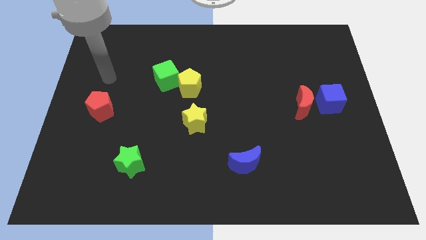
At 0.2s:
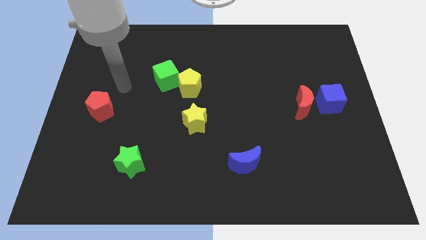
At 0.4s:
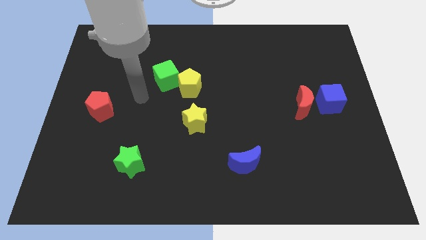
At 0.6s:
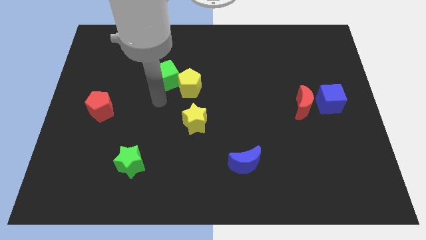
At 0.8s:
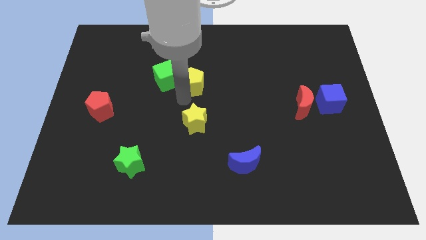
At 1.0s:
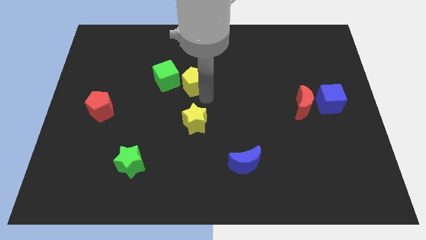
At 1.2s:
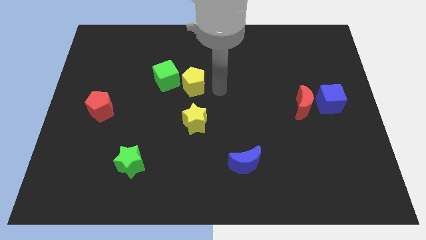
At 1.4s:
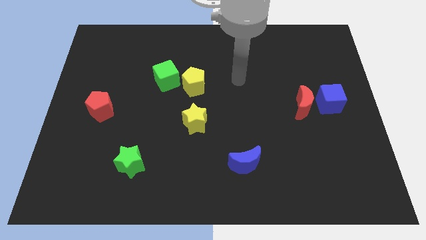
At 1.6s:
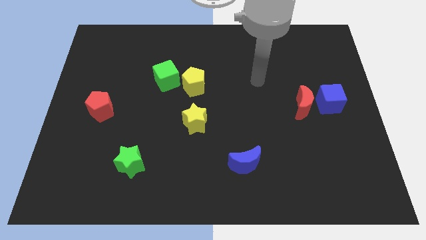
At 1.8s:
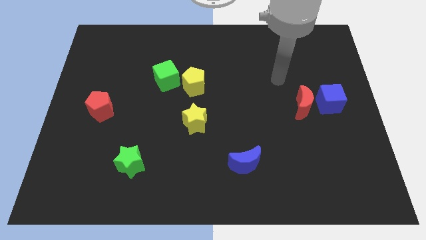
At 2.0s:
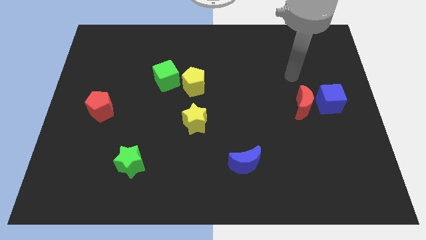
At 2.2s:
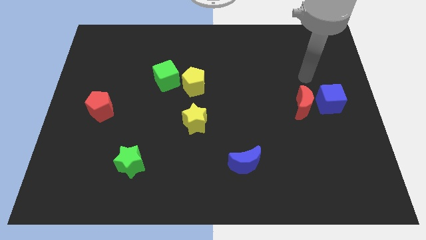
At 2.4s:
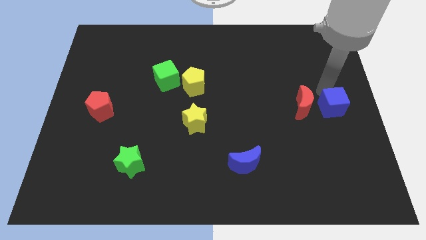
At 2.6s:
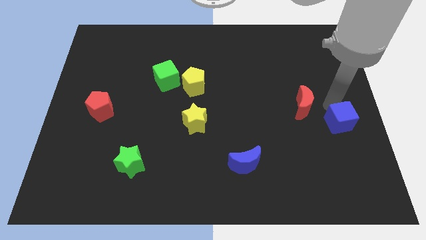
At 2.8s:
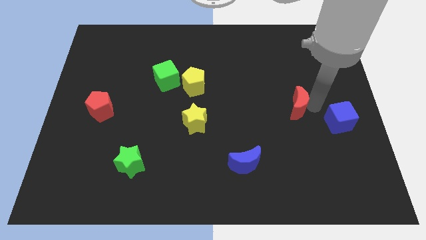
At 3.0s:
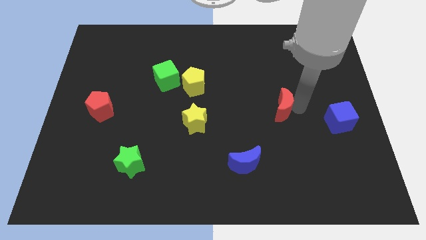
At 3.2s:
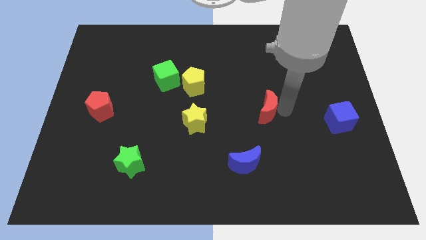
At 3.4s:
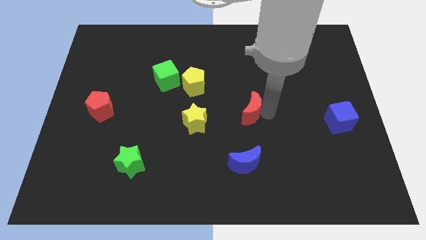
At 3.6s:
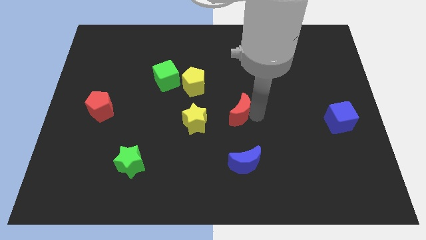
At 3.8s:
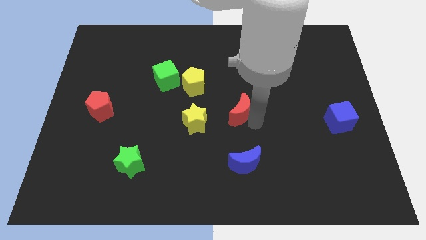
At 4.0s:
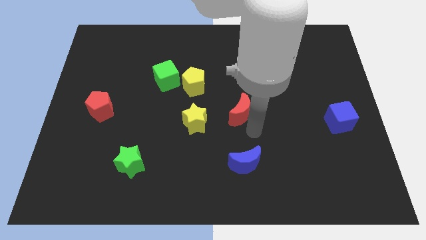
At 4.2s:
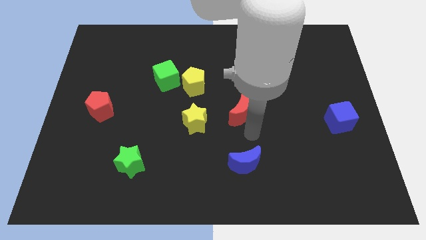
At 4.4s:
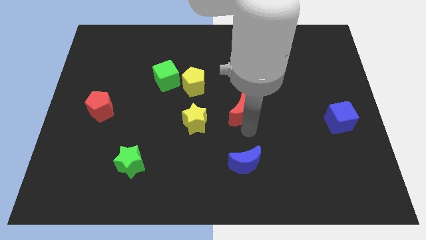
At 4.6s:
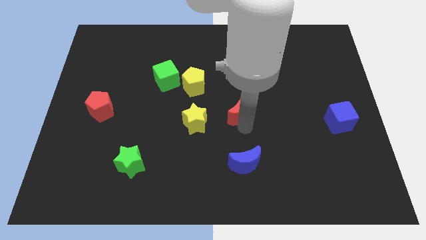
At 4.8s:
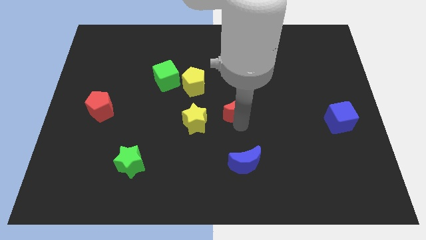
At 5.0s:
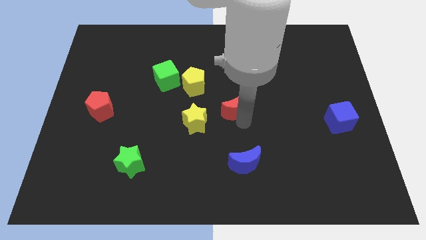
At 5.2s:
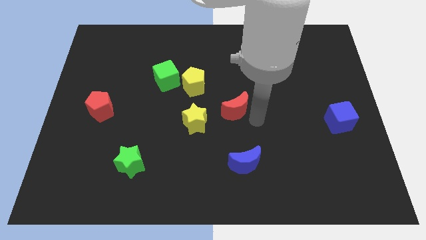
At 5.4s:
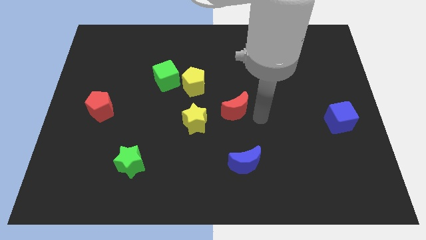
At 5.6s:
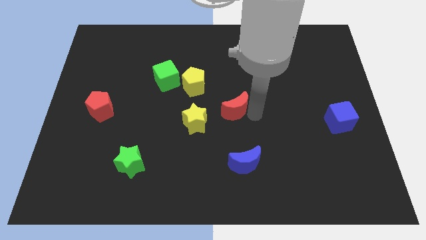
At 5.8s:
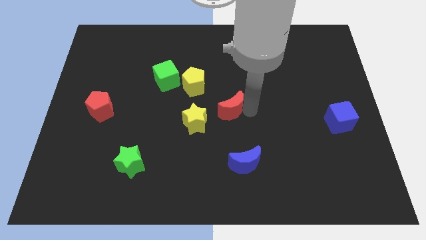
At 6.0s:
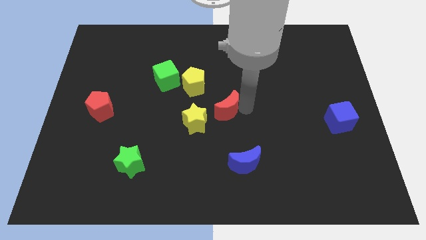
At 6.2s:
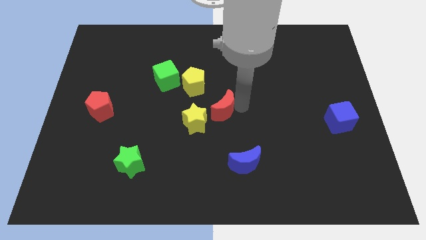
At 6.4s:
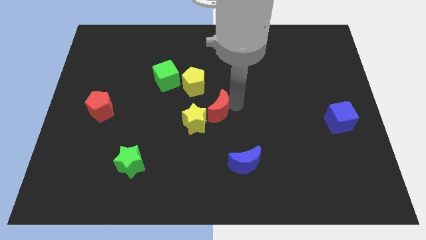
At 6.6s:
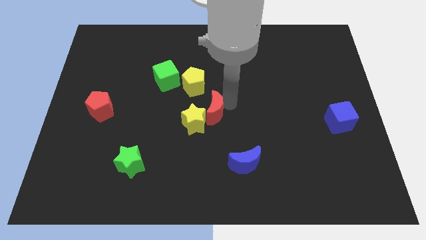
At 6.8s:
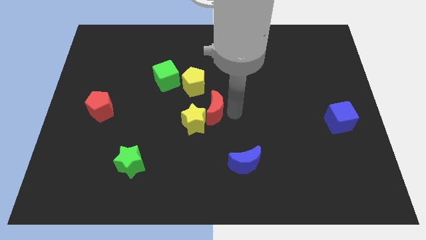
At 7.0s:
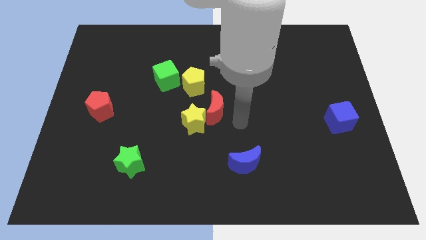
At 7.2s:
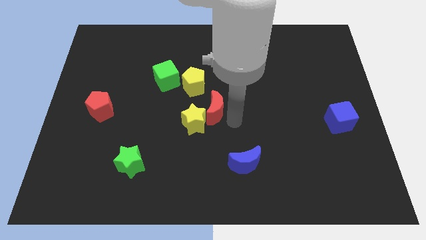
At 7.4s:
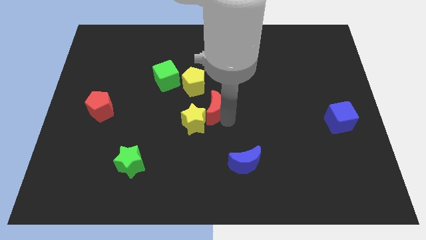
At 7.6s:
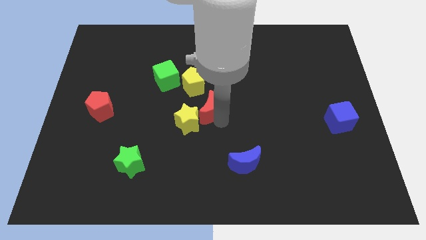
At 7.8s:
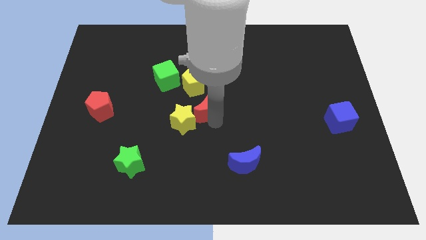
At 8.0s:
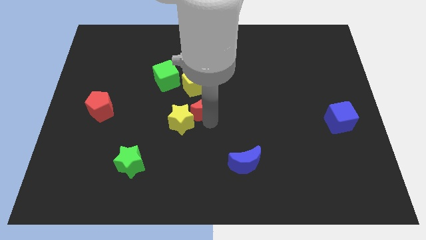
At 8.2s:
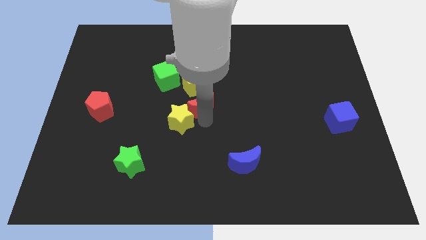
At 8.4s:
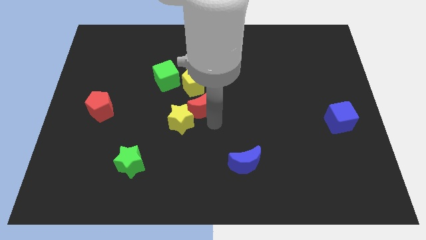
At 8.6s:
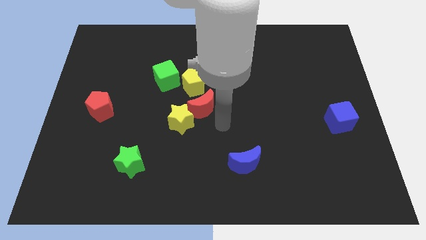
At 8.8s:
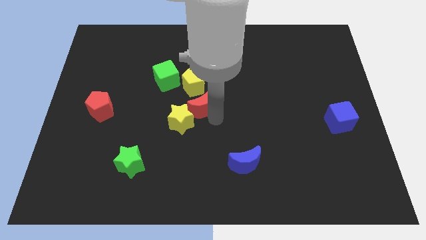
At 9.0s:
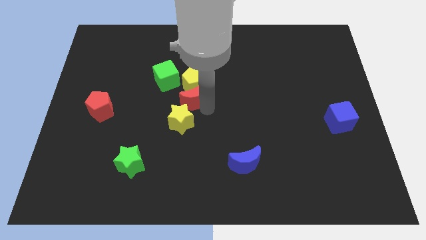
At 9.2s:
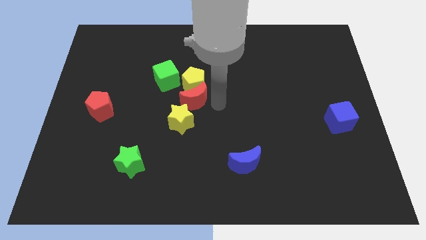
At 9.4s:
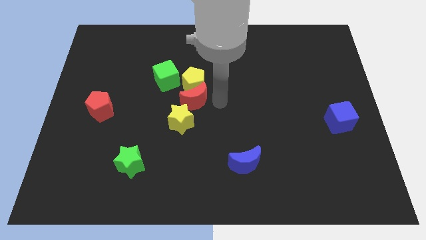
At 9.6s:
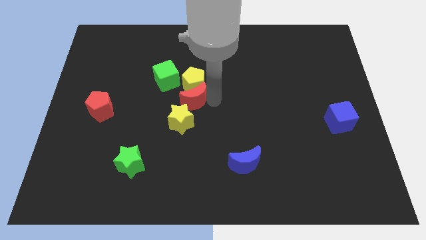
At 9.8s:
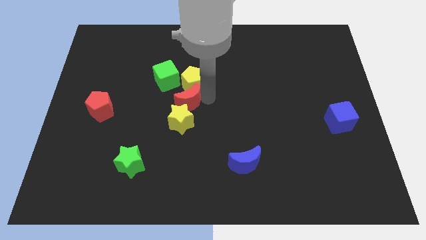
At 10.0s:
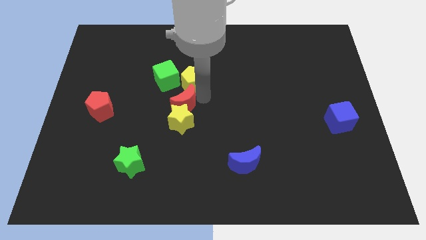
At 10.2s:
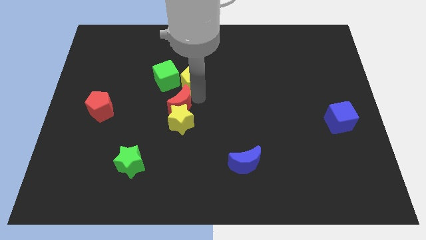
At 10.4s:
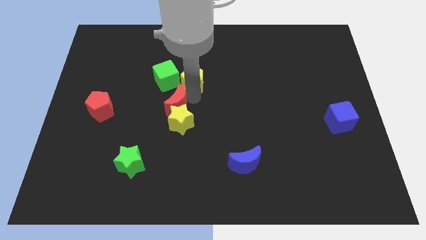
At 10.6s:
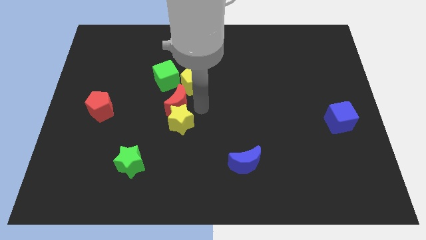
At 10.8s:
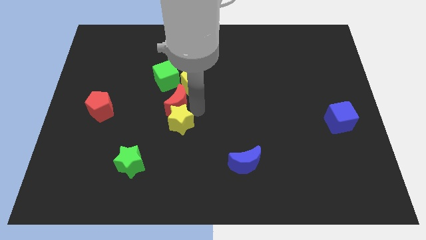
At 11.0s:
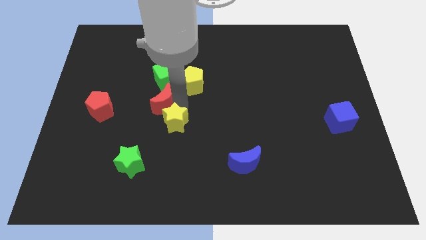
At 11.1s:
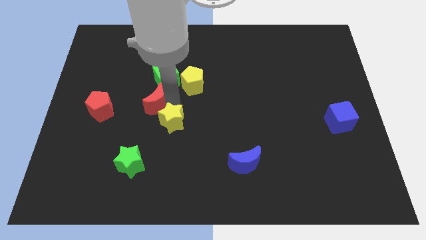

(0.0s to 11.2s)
slide the red moon to the bottom left of the green cube

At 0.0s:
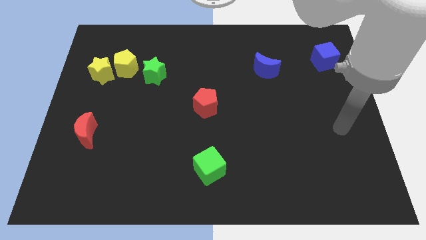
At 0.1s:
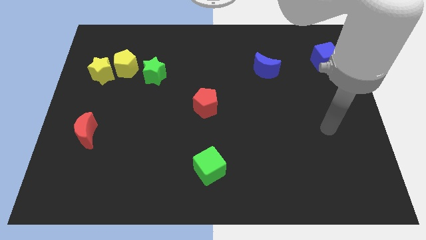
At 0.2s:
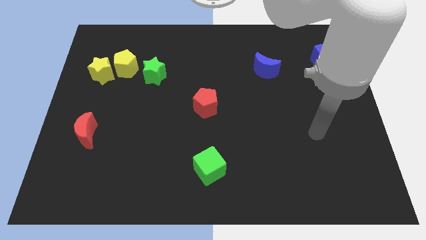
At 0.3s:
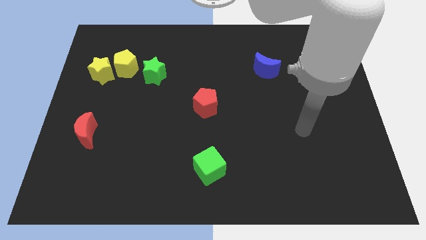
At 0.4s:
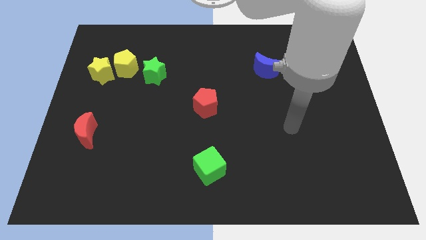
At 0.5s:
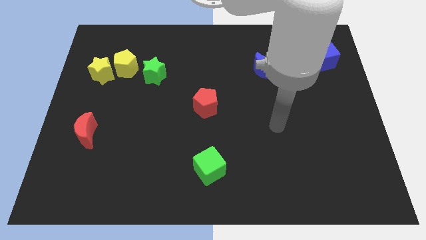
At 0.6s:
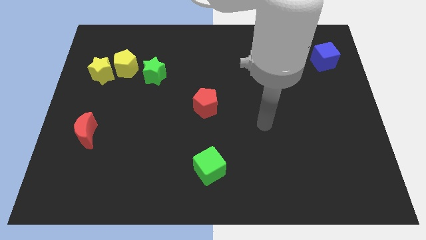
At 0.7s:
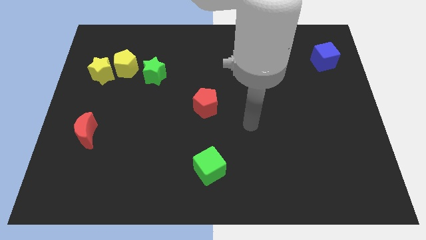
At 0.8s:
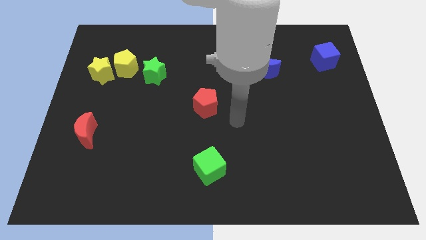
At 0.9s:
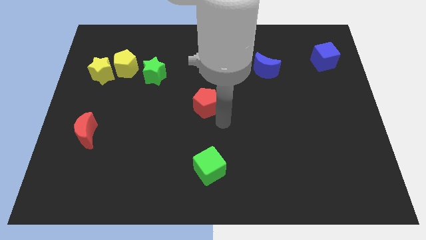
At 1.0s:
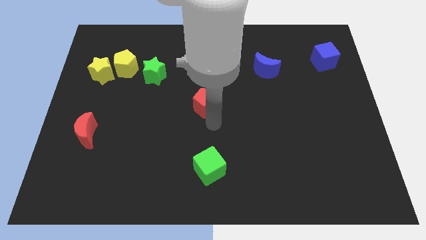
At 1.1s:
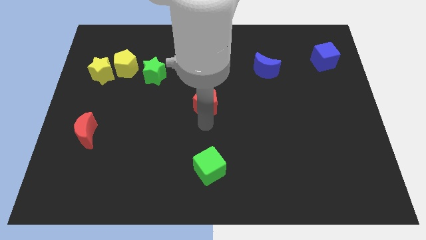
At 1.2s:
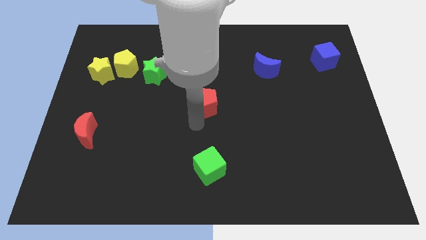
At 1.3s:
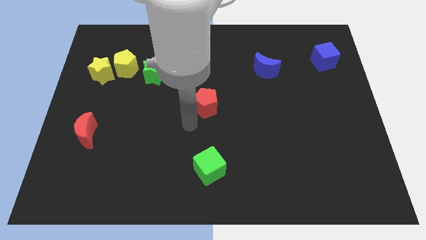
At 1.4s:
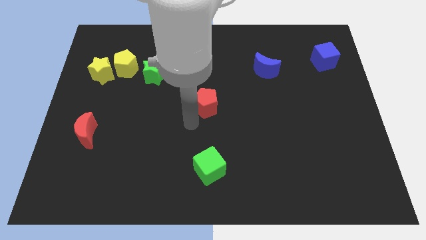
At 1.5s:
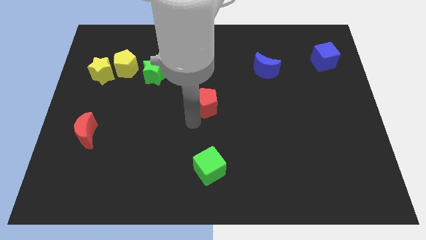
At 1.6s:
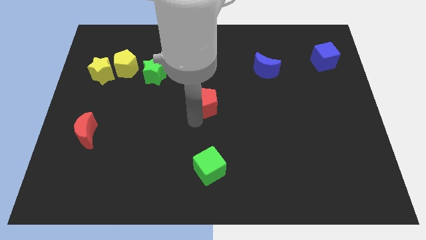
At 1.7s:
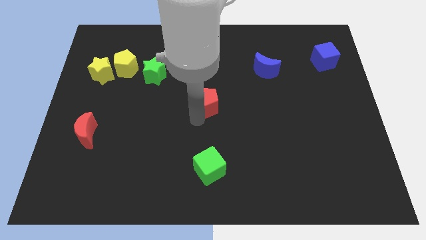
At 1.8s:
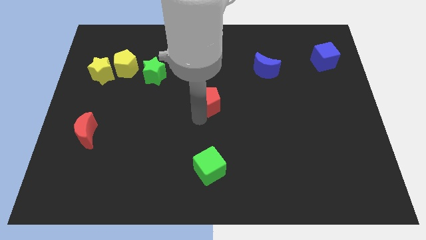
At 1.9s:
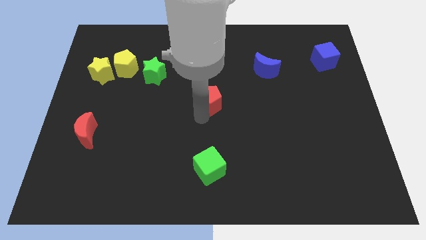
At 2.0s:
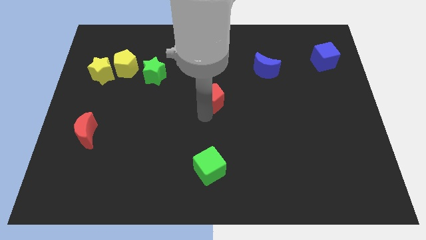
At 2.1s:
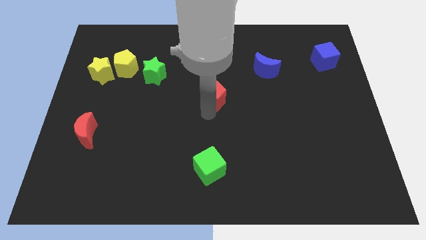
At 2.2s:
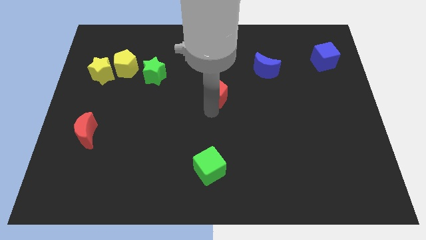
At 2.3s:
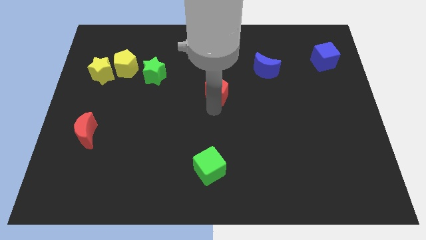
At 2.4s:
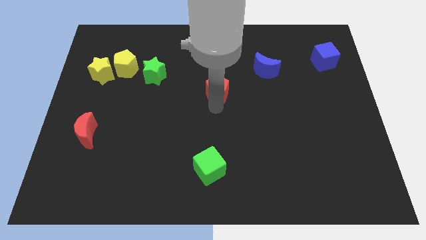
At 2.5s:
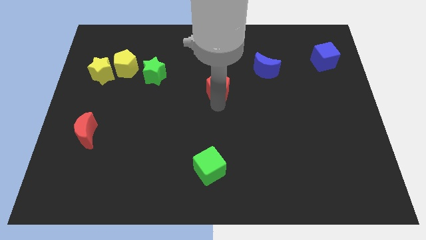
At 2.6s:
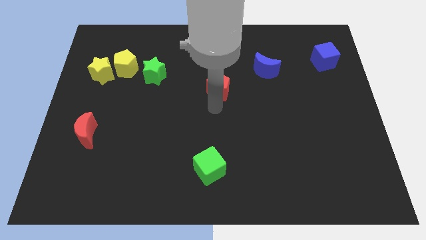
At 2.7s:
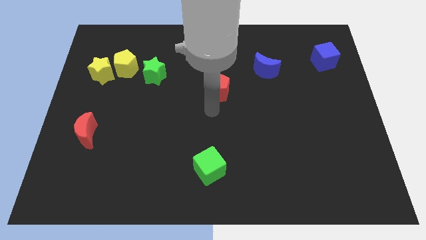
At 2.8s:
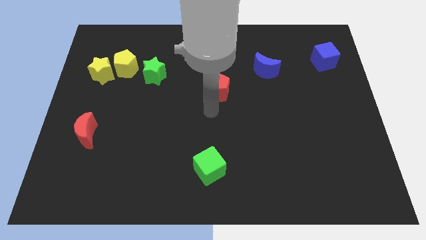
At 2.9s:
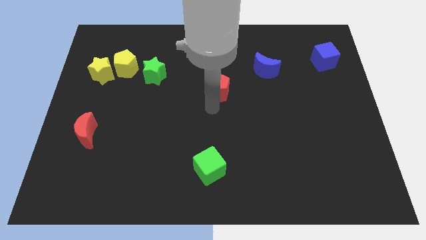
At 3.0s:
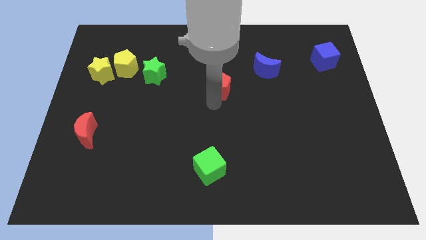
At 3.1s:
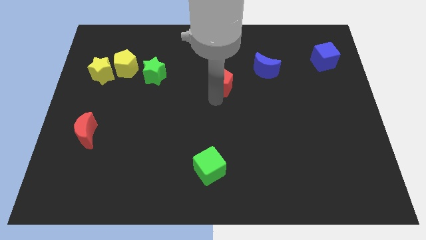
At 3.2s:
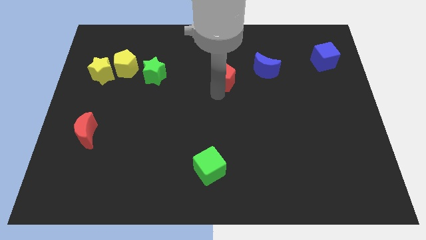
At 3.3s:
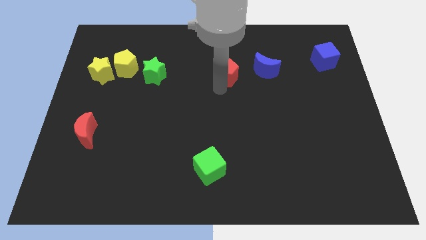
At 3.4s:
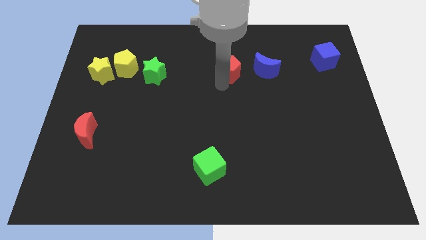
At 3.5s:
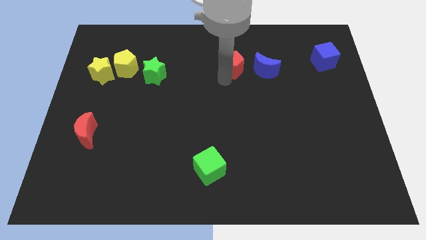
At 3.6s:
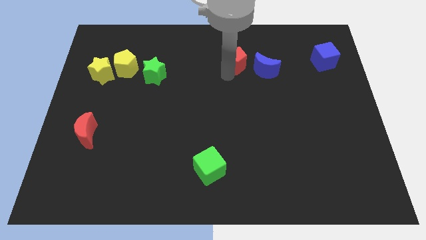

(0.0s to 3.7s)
slide the red pentagon to the top left side of the blue moon
